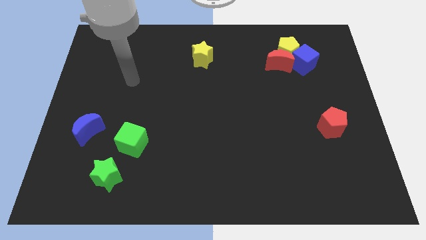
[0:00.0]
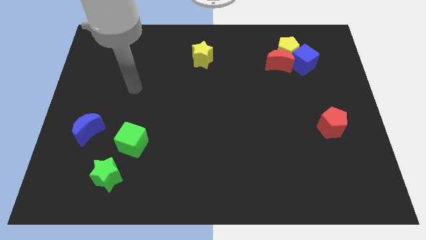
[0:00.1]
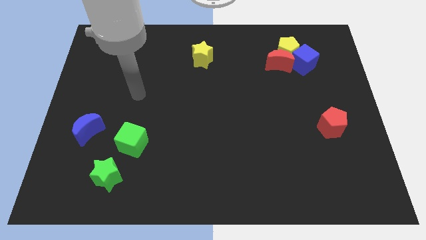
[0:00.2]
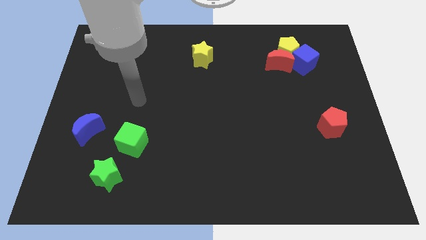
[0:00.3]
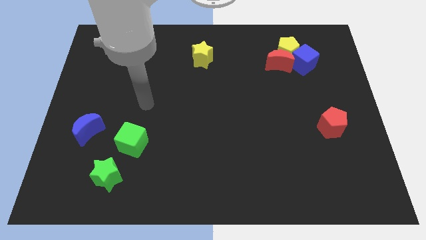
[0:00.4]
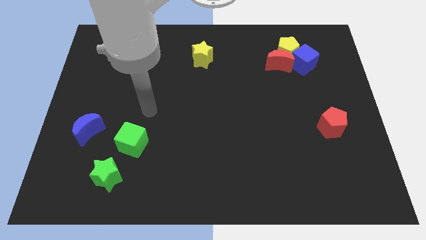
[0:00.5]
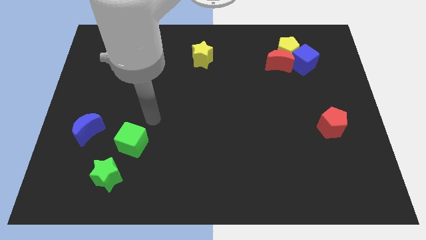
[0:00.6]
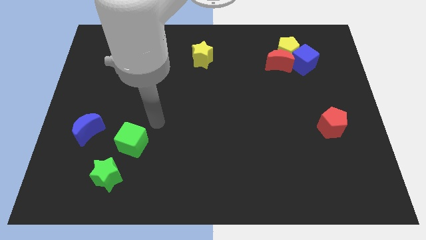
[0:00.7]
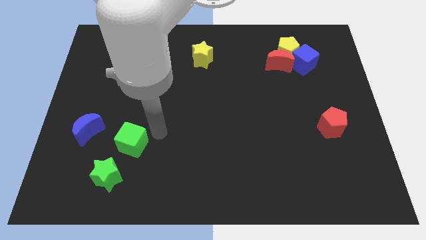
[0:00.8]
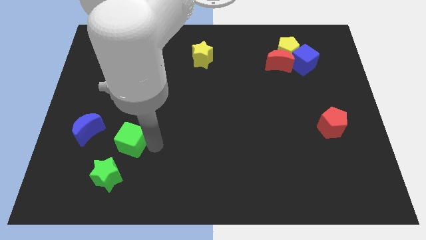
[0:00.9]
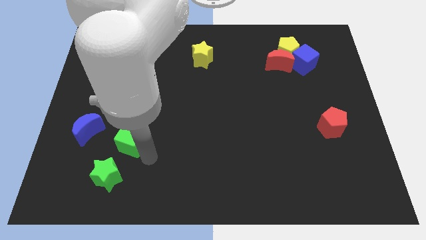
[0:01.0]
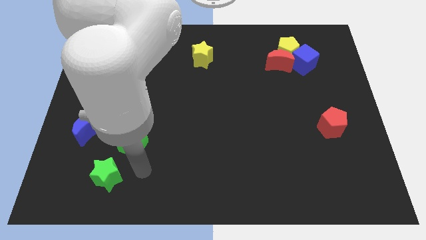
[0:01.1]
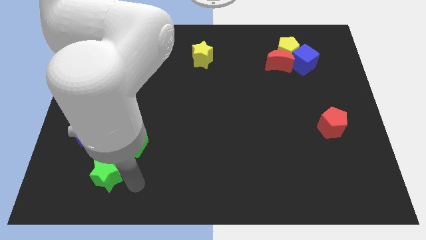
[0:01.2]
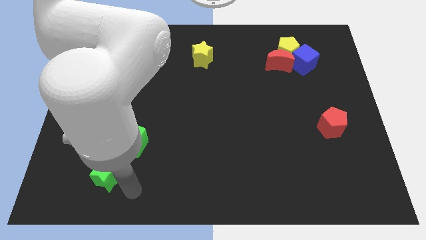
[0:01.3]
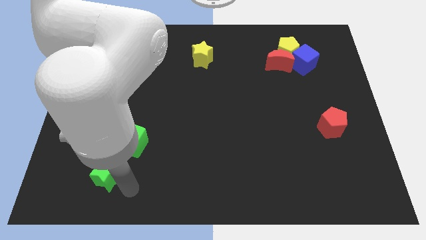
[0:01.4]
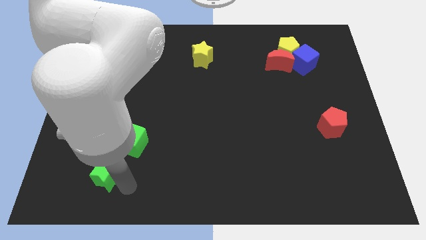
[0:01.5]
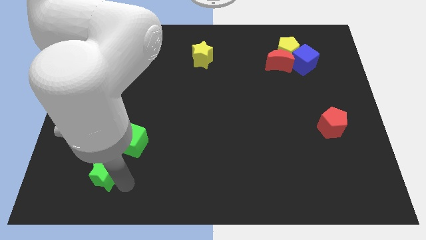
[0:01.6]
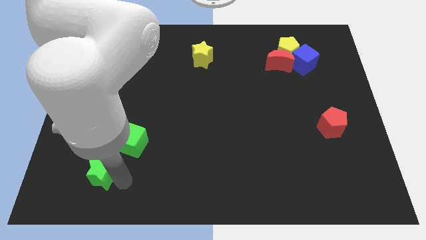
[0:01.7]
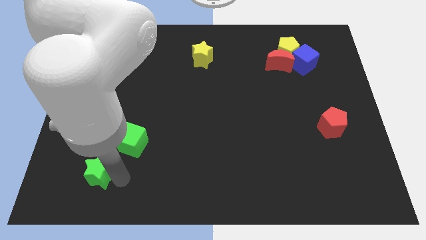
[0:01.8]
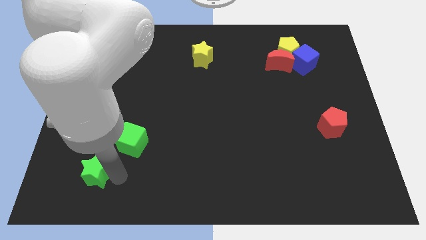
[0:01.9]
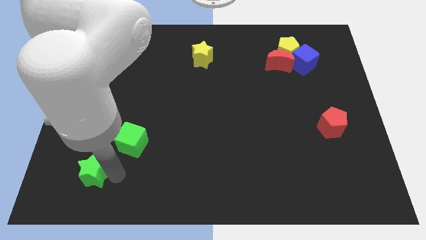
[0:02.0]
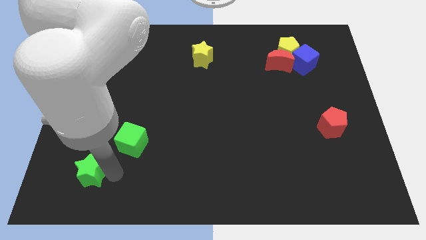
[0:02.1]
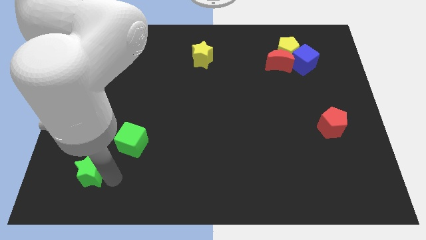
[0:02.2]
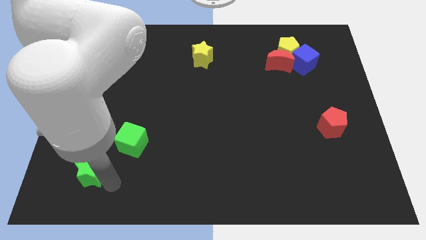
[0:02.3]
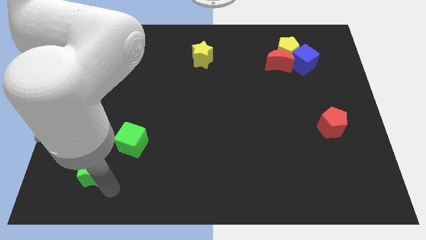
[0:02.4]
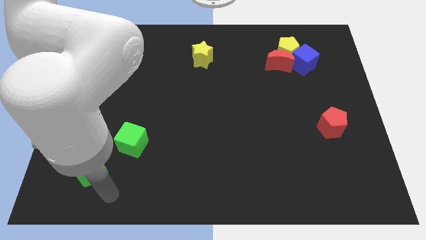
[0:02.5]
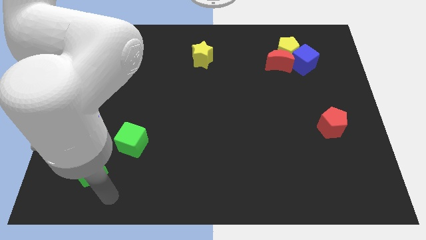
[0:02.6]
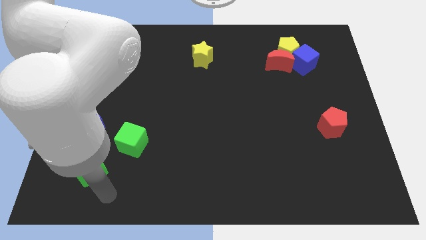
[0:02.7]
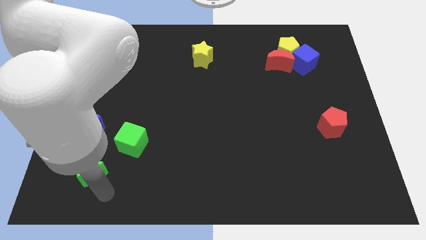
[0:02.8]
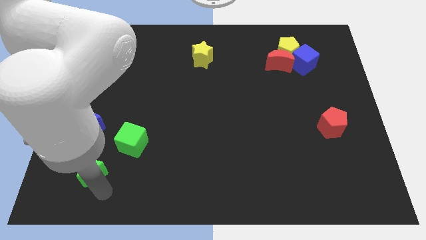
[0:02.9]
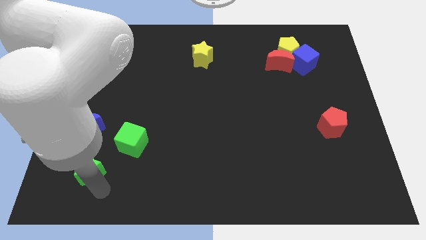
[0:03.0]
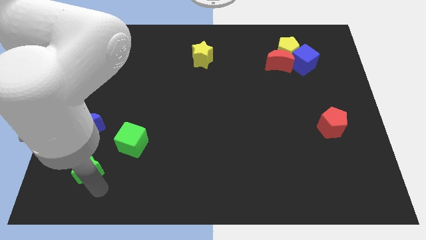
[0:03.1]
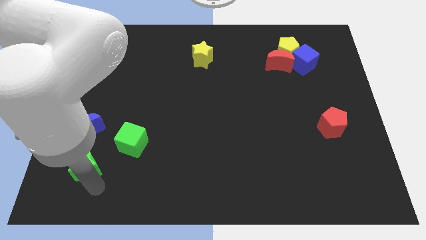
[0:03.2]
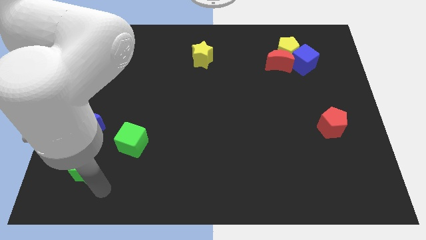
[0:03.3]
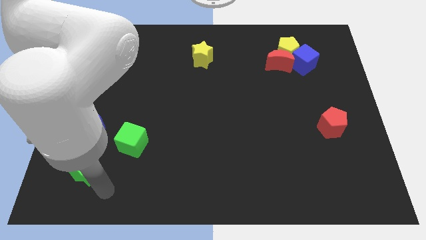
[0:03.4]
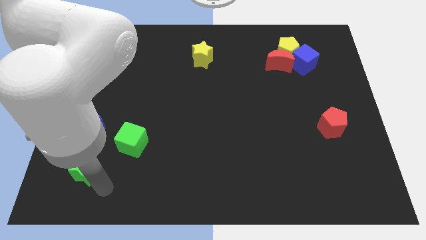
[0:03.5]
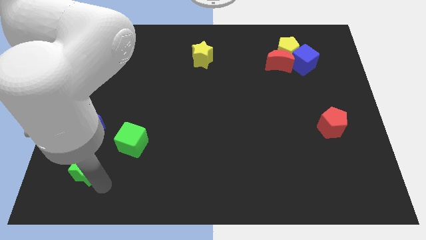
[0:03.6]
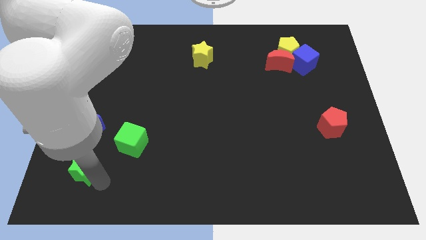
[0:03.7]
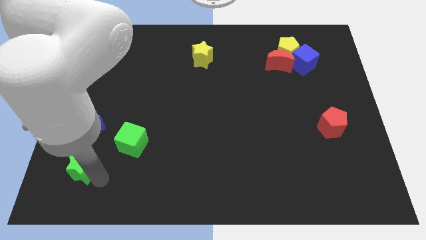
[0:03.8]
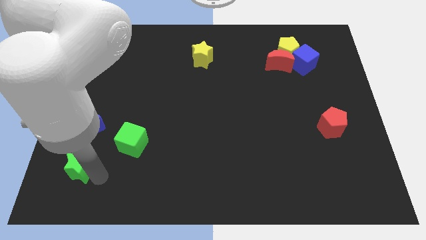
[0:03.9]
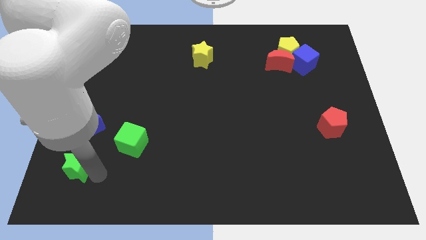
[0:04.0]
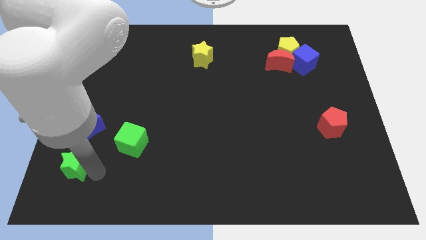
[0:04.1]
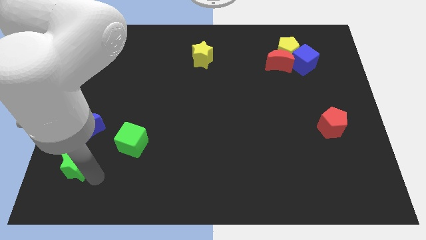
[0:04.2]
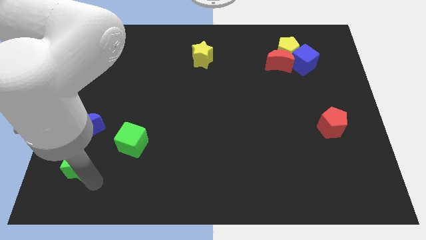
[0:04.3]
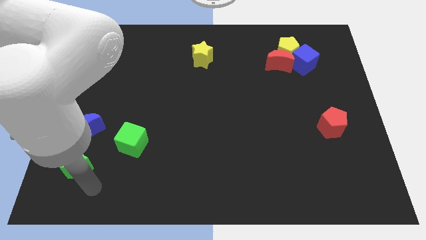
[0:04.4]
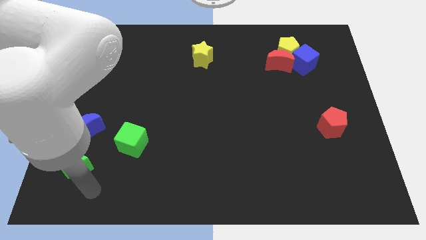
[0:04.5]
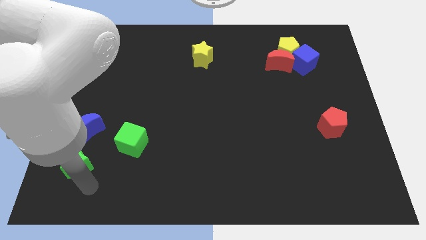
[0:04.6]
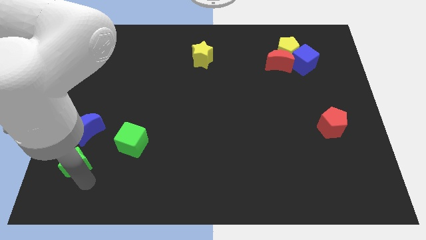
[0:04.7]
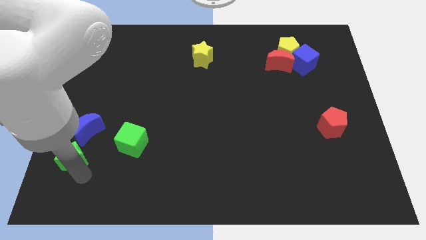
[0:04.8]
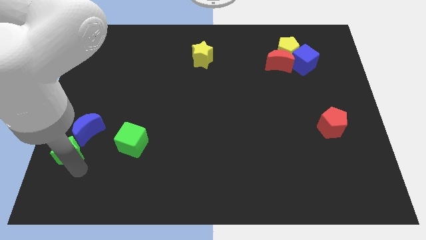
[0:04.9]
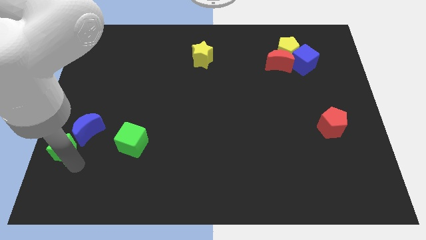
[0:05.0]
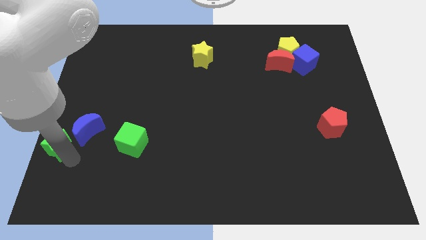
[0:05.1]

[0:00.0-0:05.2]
push the green star to the left side of the board

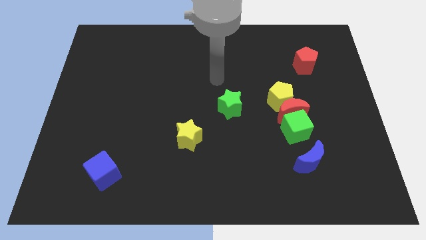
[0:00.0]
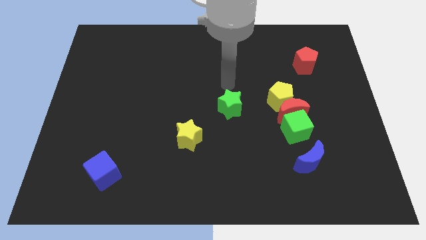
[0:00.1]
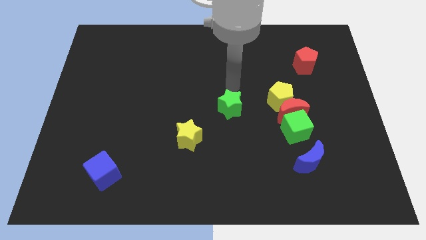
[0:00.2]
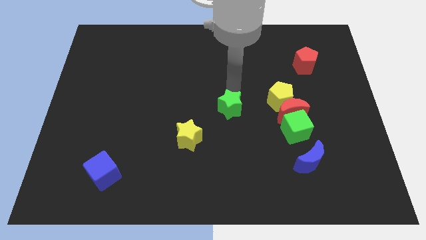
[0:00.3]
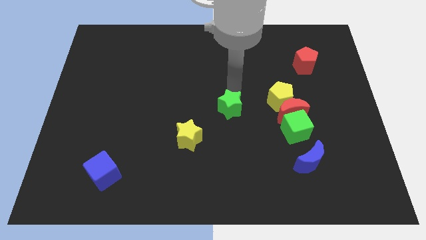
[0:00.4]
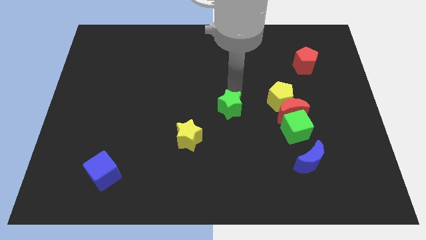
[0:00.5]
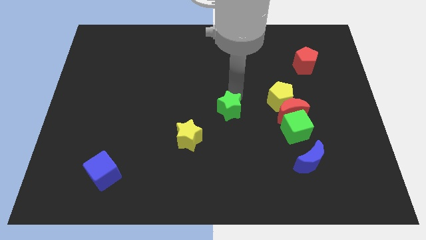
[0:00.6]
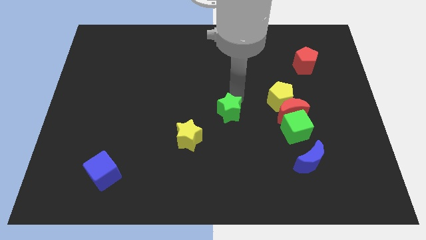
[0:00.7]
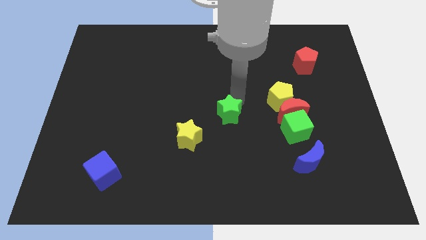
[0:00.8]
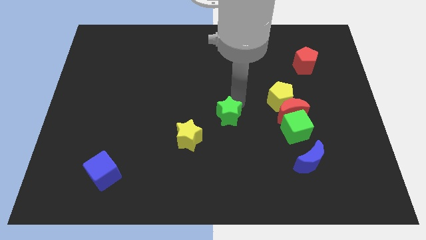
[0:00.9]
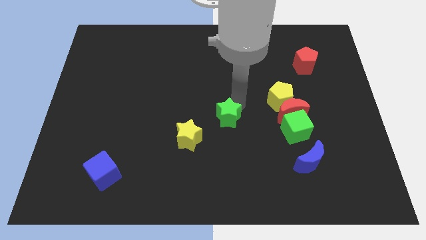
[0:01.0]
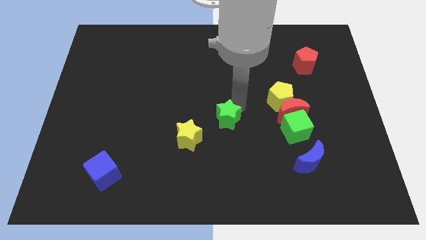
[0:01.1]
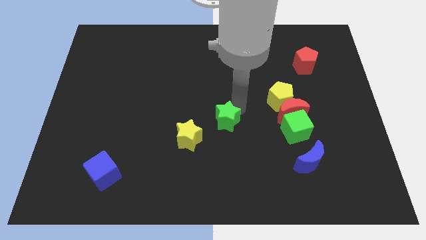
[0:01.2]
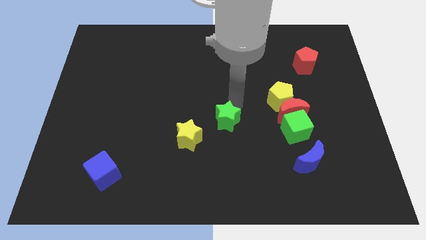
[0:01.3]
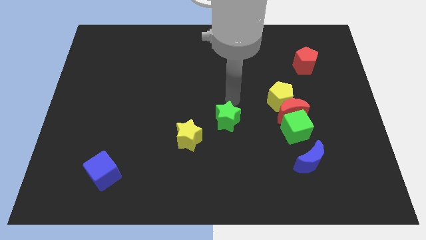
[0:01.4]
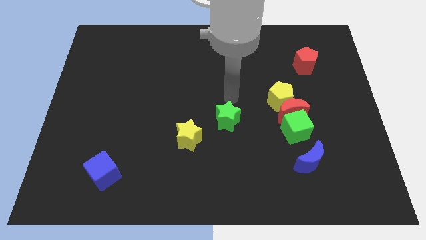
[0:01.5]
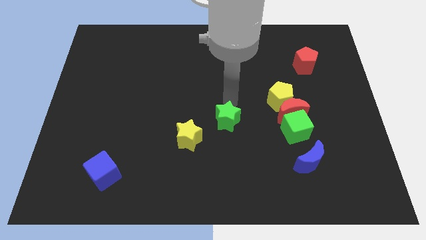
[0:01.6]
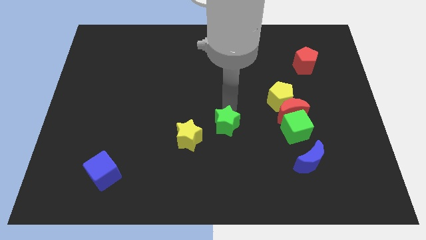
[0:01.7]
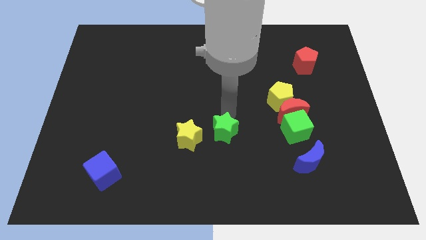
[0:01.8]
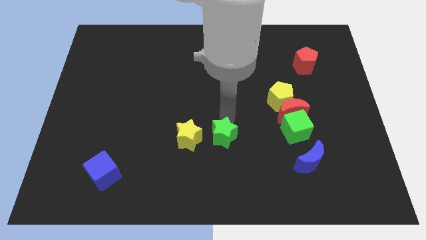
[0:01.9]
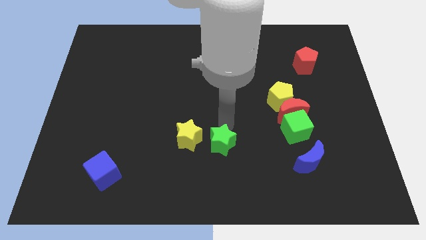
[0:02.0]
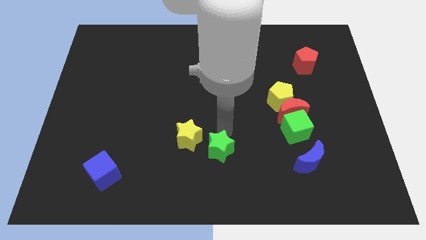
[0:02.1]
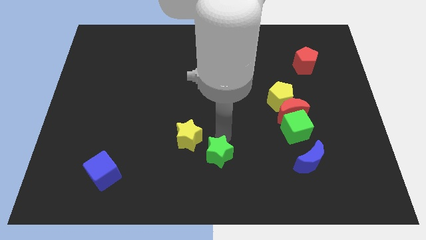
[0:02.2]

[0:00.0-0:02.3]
slide the green star to the bottom side
